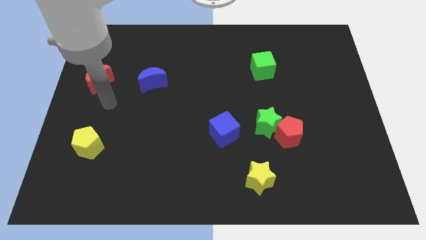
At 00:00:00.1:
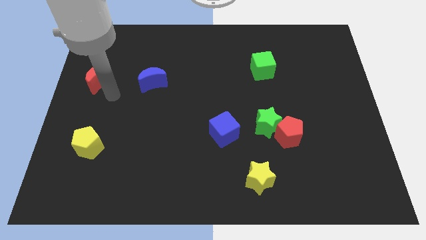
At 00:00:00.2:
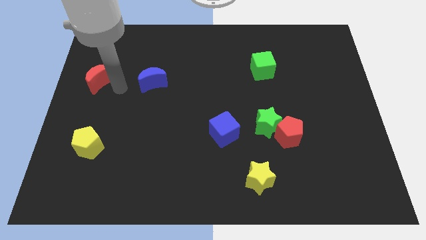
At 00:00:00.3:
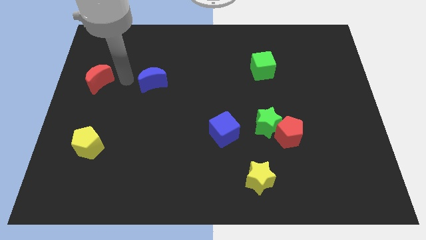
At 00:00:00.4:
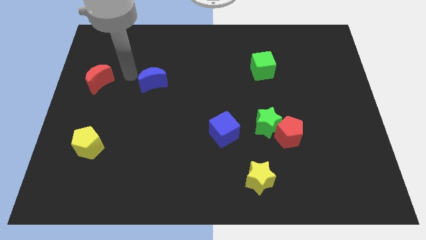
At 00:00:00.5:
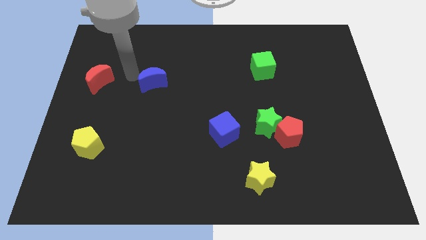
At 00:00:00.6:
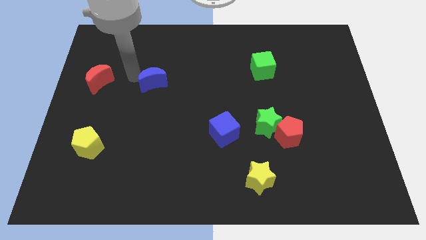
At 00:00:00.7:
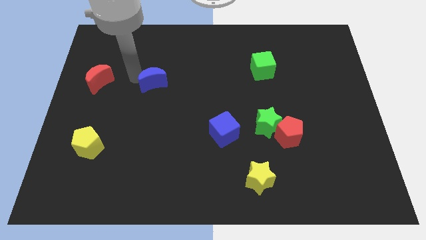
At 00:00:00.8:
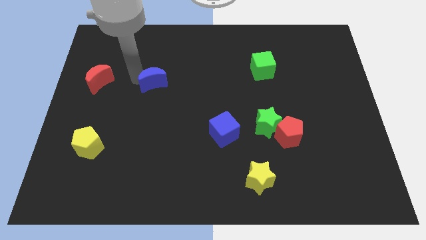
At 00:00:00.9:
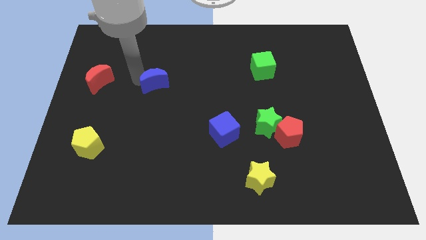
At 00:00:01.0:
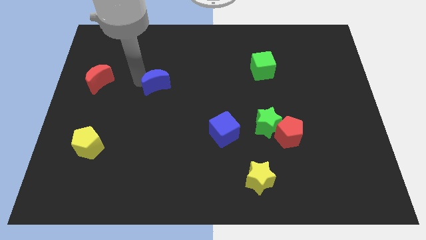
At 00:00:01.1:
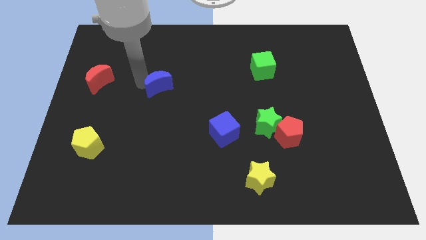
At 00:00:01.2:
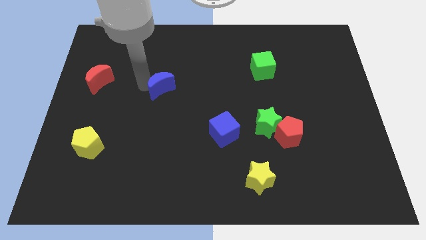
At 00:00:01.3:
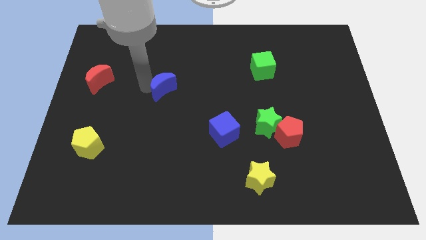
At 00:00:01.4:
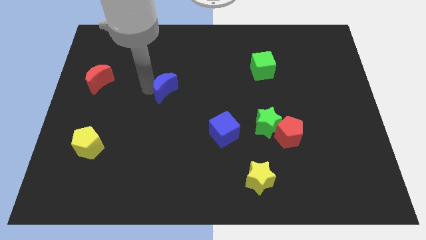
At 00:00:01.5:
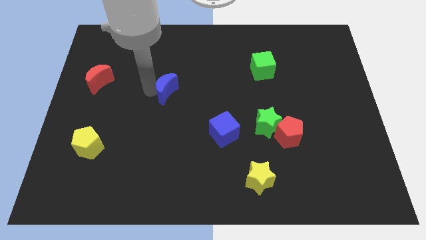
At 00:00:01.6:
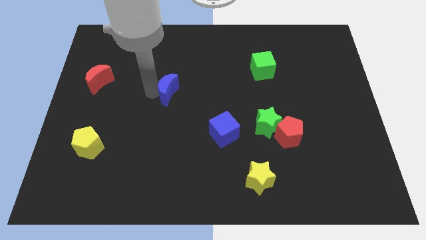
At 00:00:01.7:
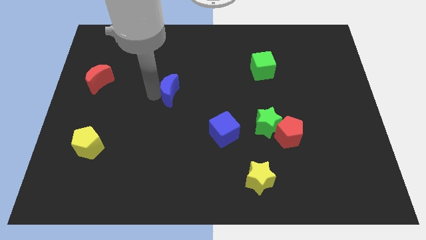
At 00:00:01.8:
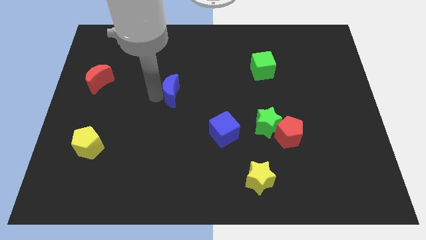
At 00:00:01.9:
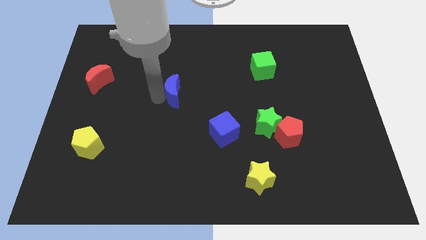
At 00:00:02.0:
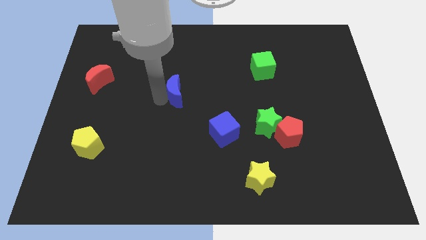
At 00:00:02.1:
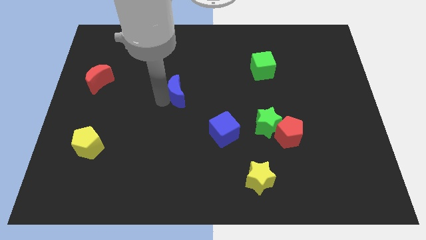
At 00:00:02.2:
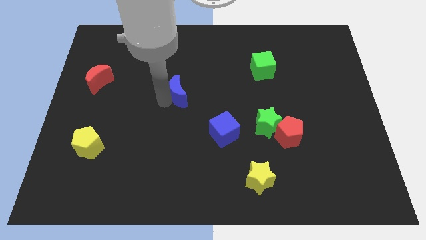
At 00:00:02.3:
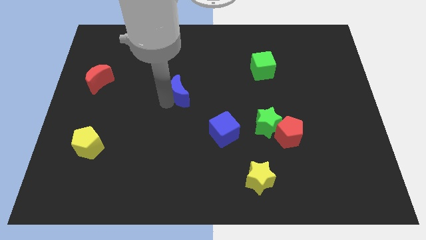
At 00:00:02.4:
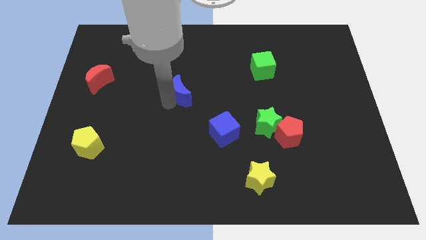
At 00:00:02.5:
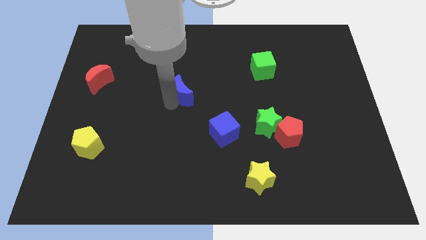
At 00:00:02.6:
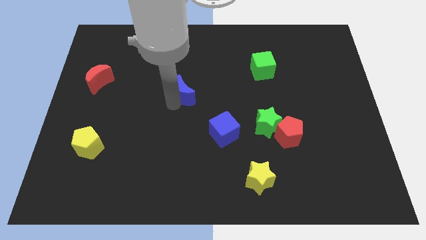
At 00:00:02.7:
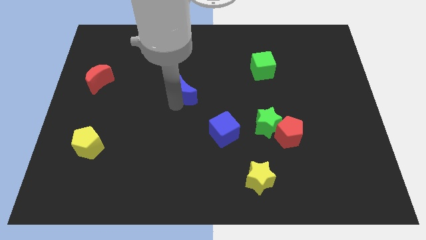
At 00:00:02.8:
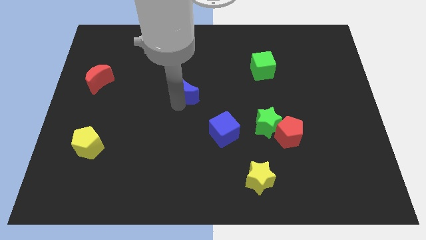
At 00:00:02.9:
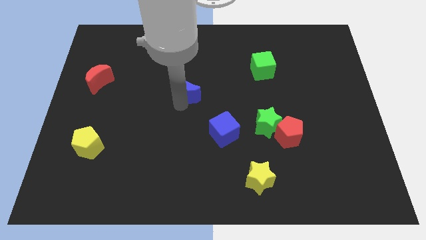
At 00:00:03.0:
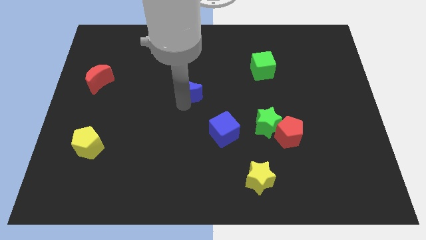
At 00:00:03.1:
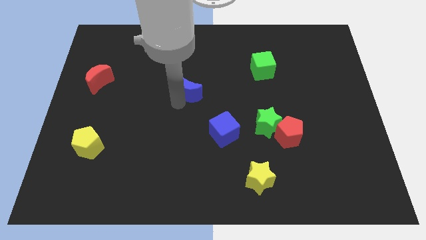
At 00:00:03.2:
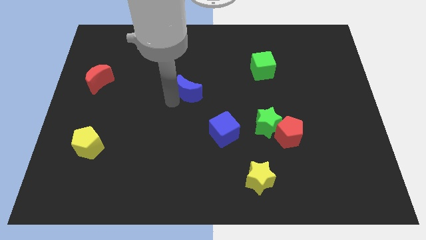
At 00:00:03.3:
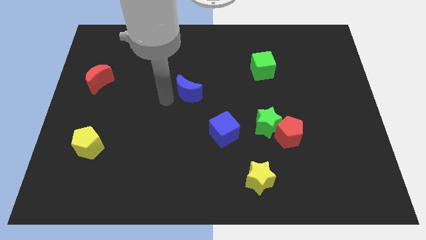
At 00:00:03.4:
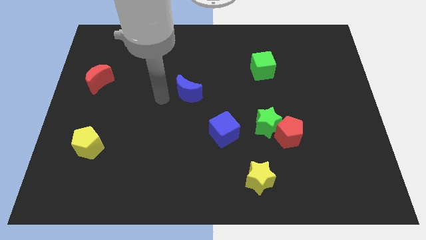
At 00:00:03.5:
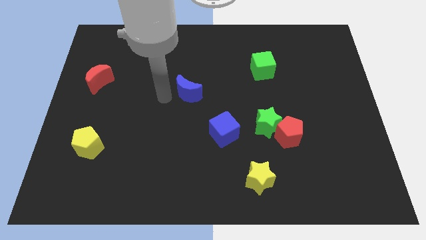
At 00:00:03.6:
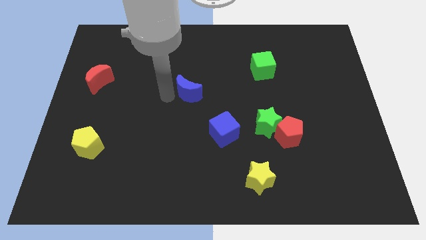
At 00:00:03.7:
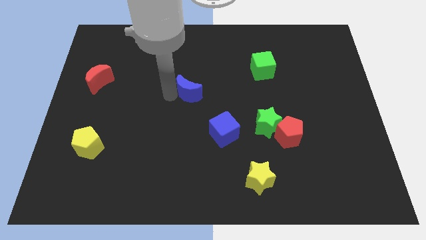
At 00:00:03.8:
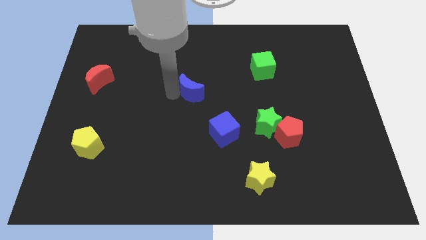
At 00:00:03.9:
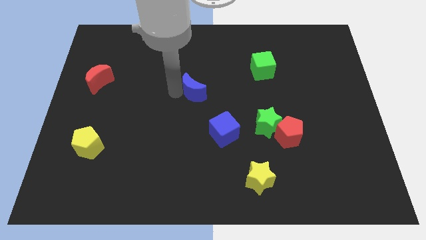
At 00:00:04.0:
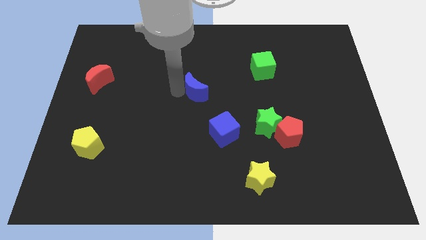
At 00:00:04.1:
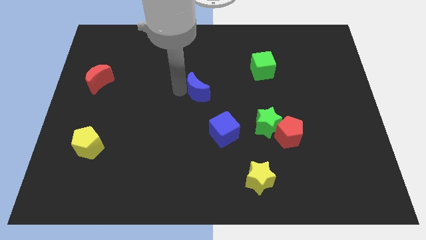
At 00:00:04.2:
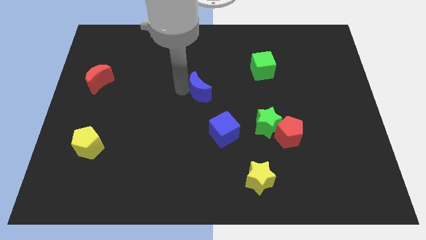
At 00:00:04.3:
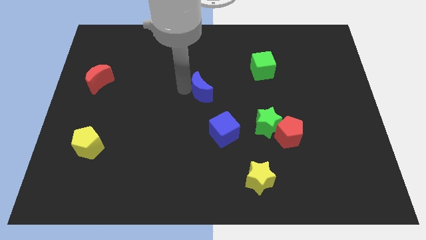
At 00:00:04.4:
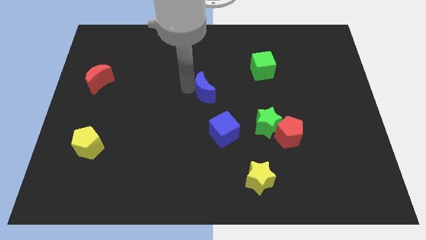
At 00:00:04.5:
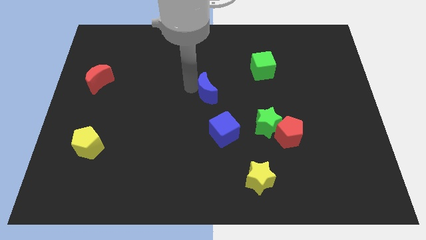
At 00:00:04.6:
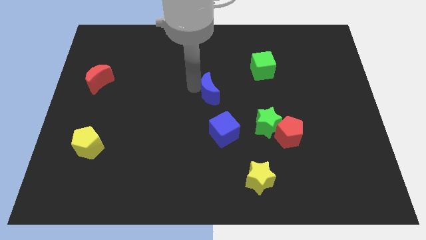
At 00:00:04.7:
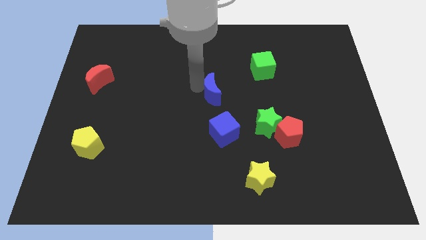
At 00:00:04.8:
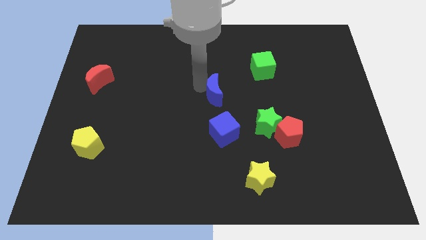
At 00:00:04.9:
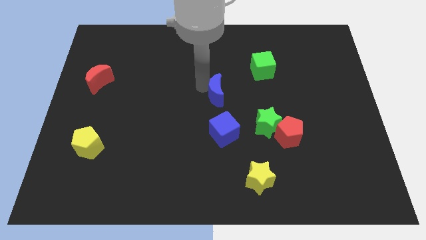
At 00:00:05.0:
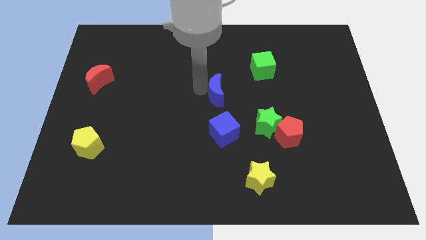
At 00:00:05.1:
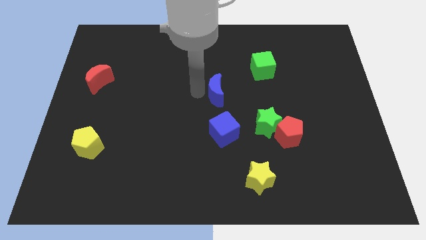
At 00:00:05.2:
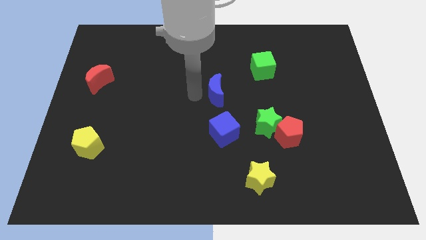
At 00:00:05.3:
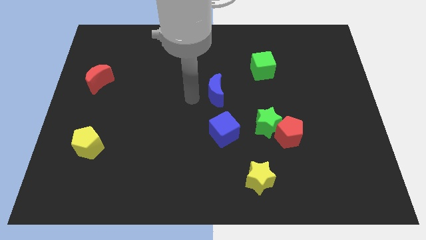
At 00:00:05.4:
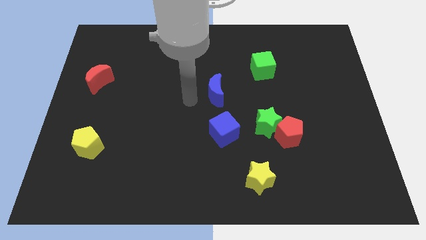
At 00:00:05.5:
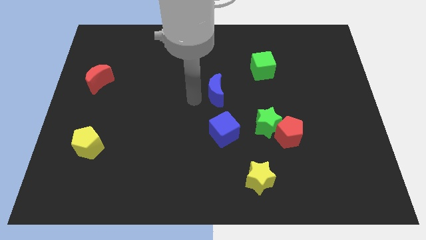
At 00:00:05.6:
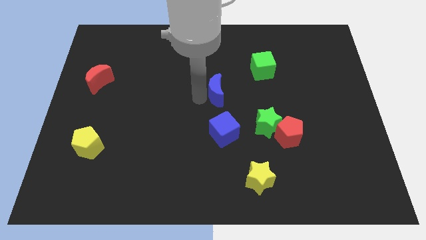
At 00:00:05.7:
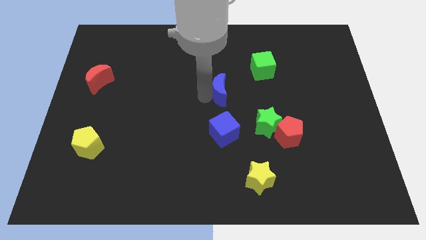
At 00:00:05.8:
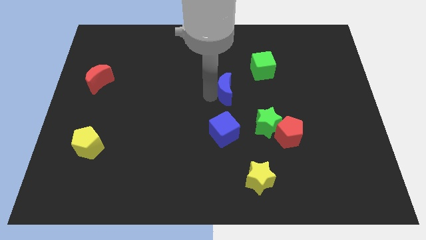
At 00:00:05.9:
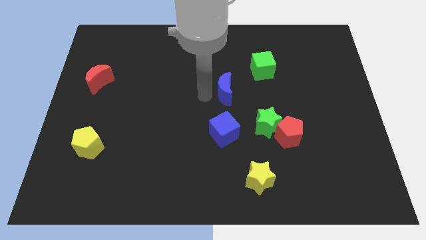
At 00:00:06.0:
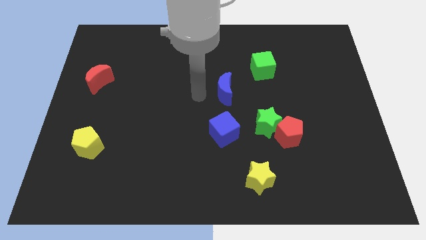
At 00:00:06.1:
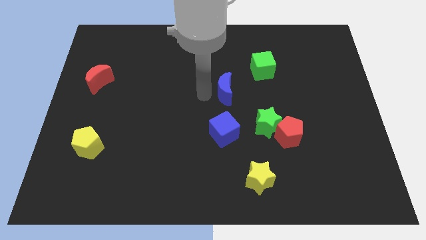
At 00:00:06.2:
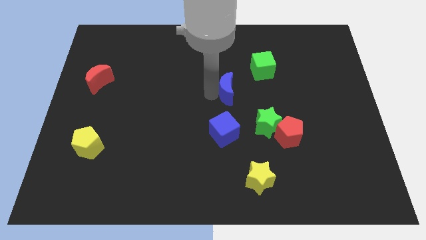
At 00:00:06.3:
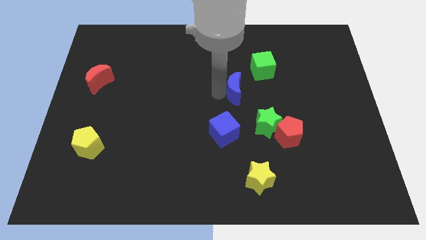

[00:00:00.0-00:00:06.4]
move the blue moon to the right

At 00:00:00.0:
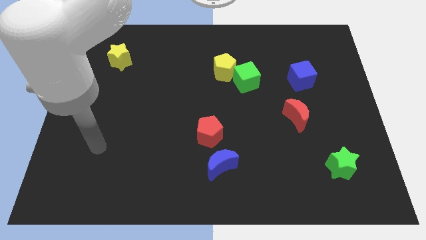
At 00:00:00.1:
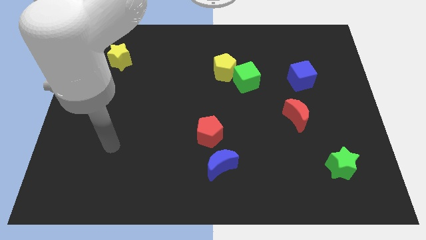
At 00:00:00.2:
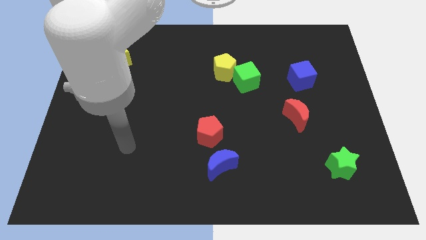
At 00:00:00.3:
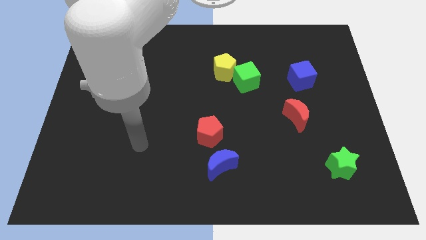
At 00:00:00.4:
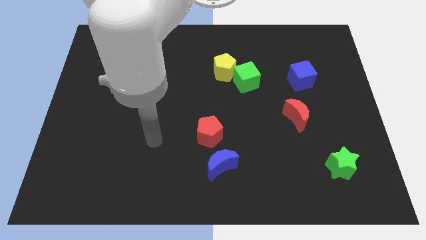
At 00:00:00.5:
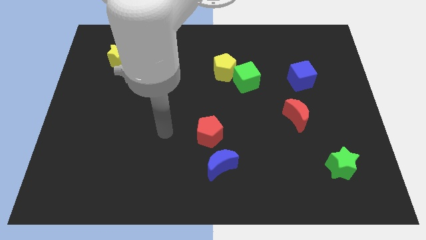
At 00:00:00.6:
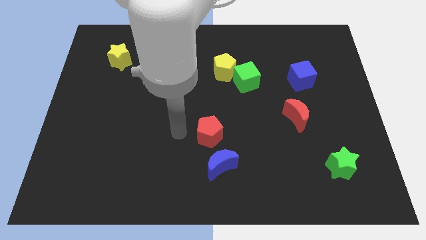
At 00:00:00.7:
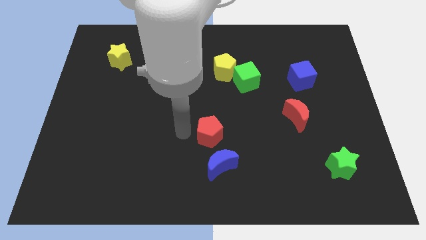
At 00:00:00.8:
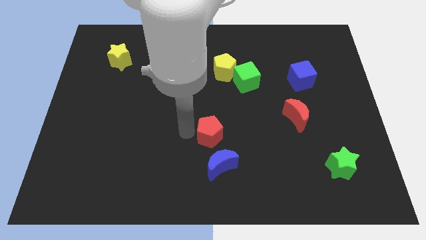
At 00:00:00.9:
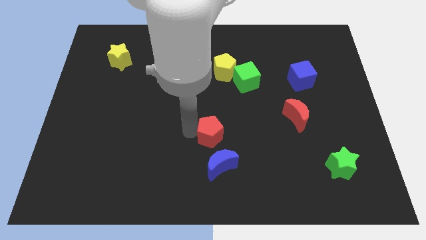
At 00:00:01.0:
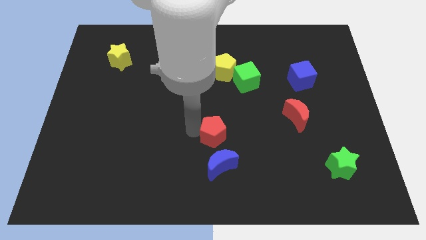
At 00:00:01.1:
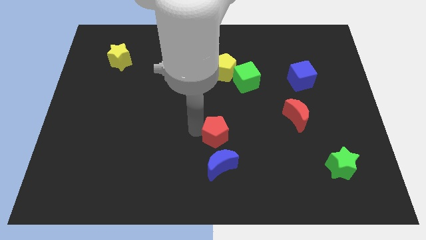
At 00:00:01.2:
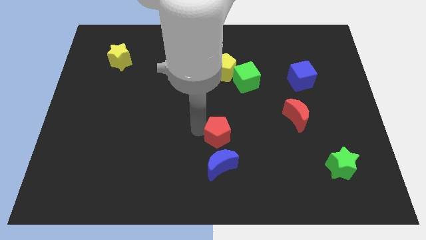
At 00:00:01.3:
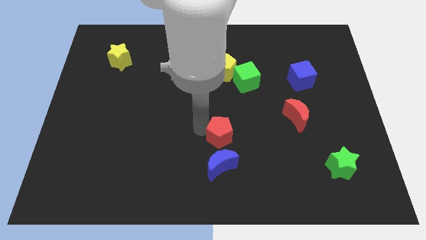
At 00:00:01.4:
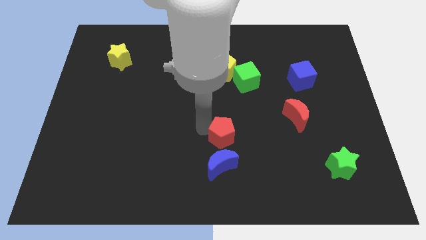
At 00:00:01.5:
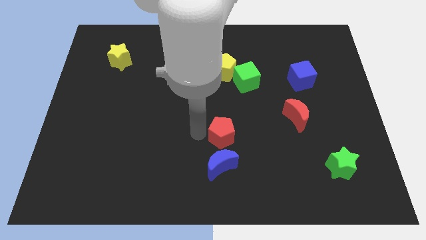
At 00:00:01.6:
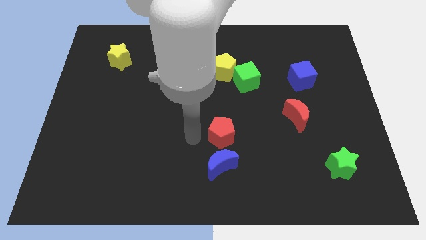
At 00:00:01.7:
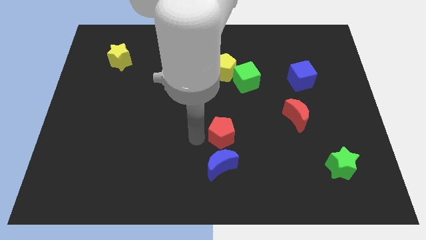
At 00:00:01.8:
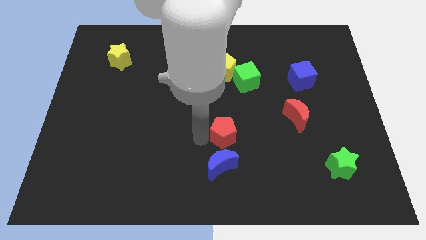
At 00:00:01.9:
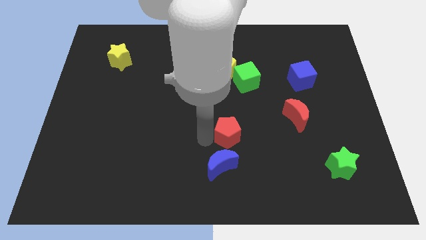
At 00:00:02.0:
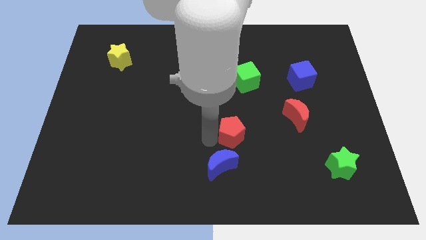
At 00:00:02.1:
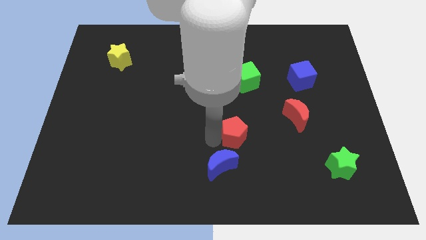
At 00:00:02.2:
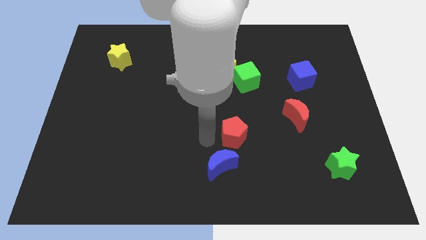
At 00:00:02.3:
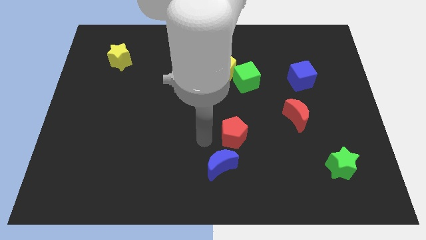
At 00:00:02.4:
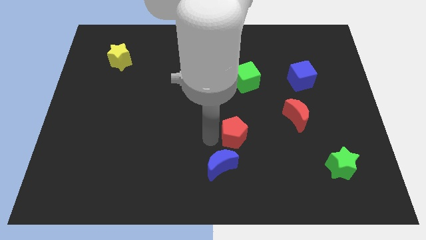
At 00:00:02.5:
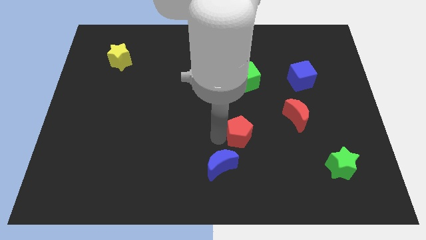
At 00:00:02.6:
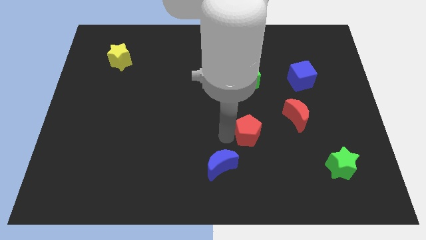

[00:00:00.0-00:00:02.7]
push the red pentagon a little to the right
